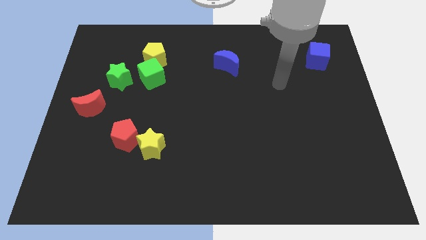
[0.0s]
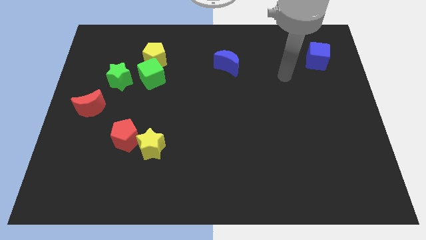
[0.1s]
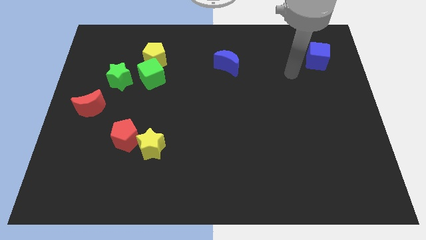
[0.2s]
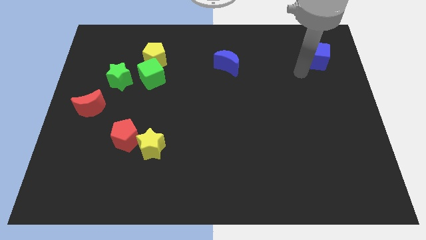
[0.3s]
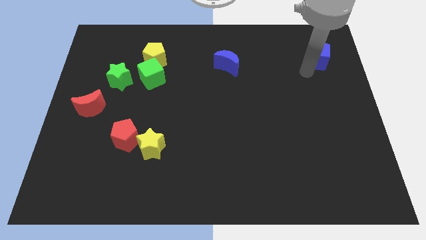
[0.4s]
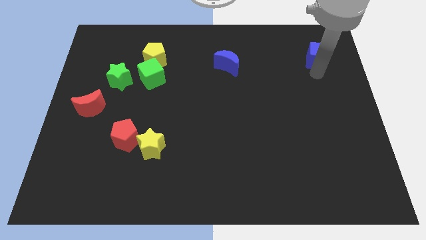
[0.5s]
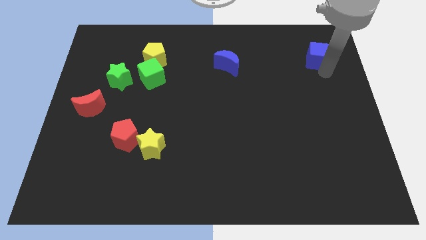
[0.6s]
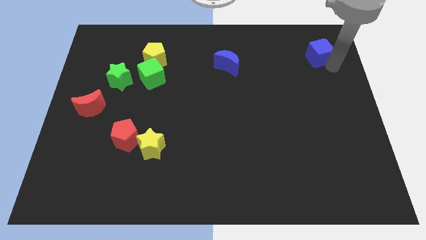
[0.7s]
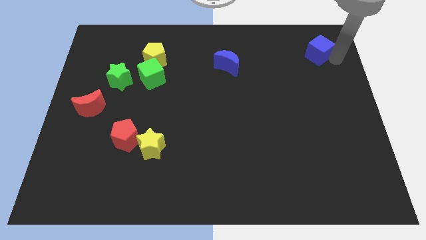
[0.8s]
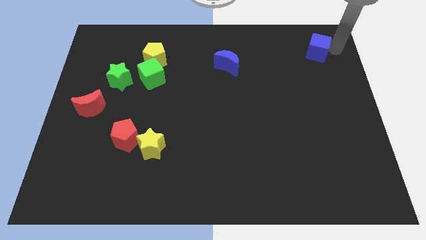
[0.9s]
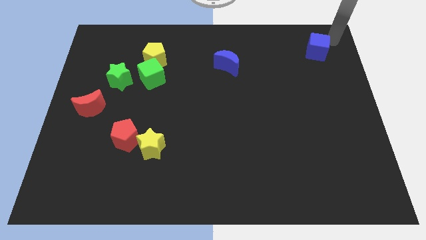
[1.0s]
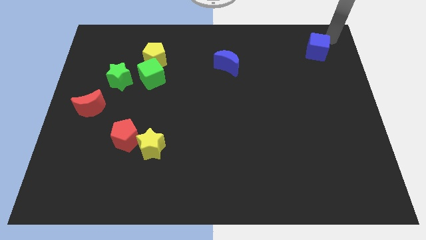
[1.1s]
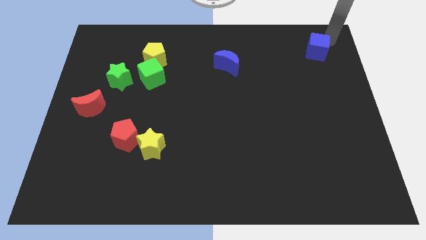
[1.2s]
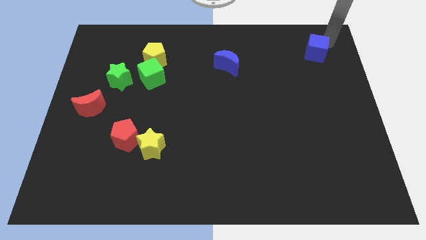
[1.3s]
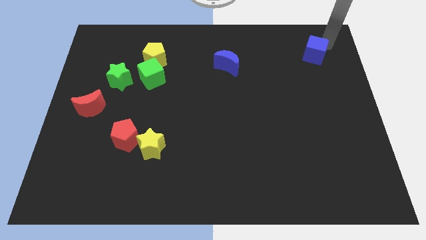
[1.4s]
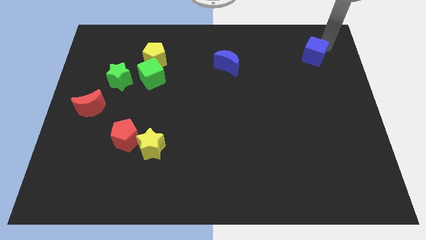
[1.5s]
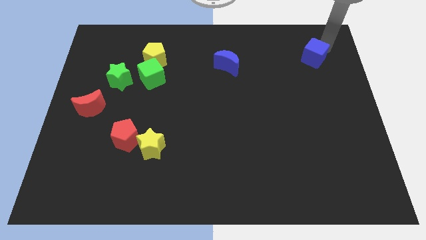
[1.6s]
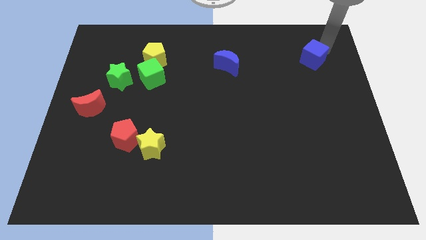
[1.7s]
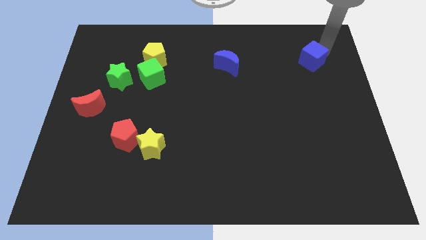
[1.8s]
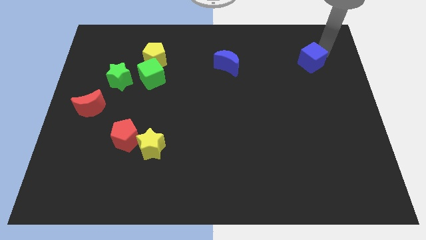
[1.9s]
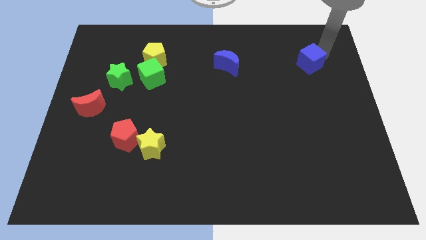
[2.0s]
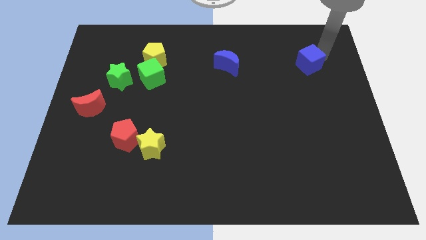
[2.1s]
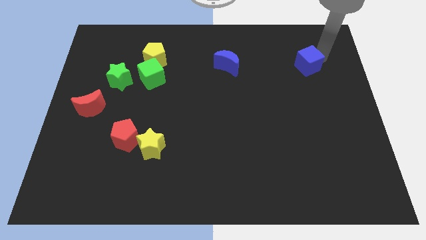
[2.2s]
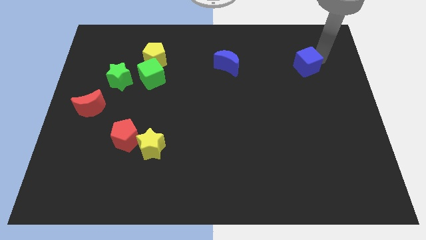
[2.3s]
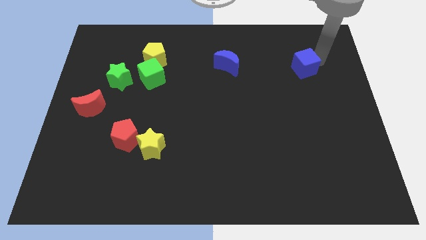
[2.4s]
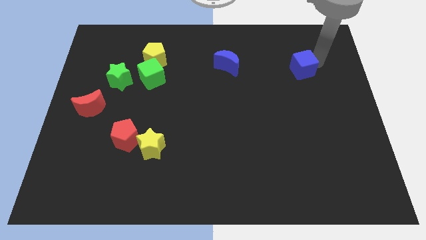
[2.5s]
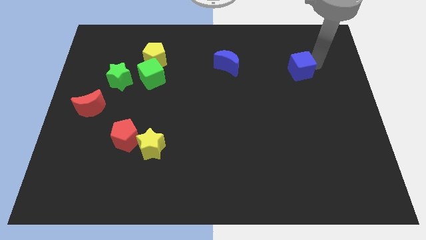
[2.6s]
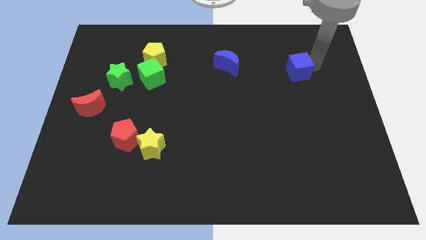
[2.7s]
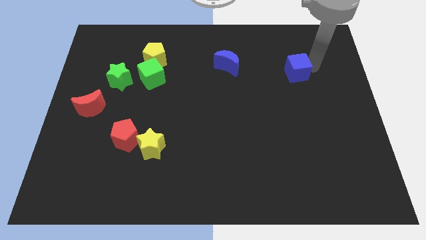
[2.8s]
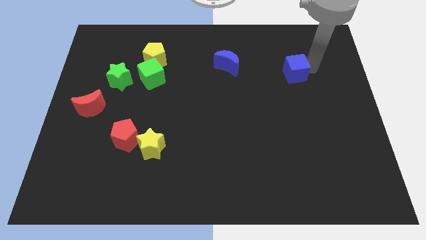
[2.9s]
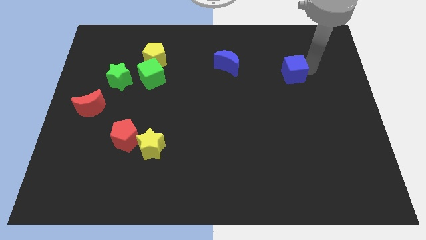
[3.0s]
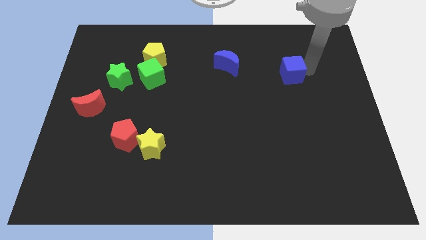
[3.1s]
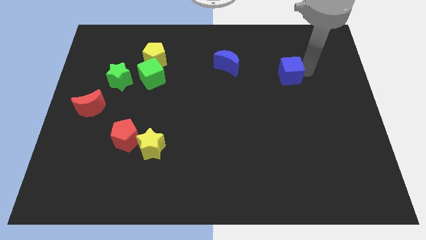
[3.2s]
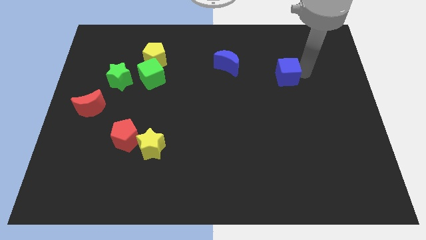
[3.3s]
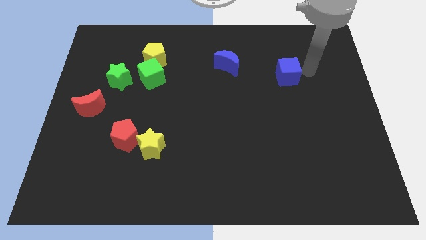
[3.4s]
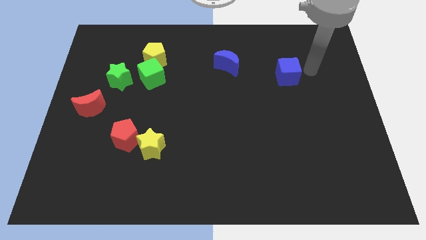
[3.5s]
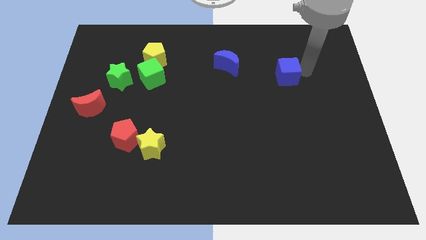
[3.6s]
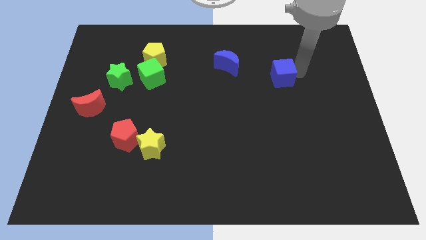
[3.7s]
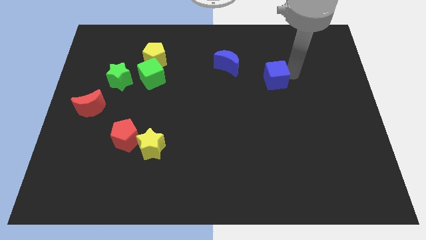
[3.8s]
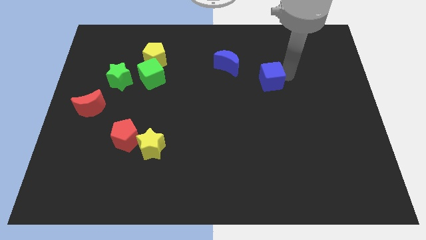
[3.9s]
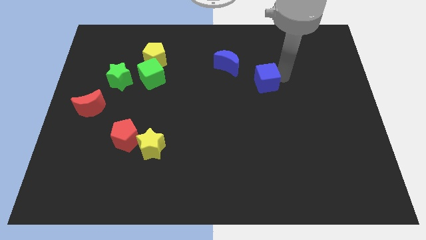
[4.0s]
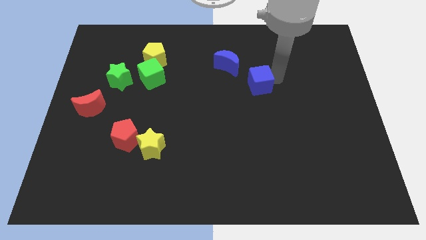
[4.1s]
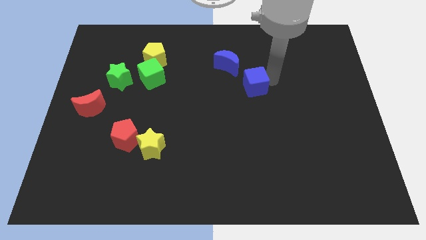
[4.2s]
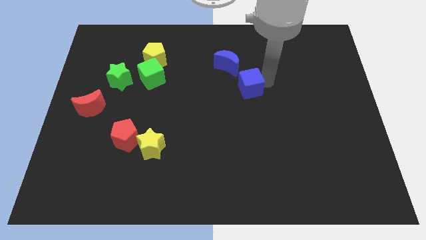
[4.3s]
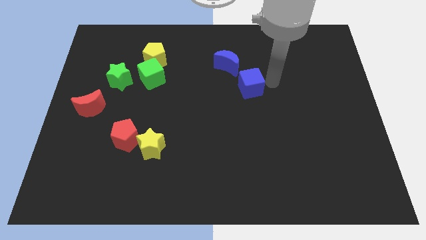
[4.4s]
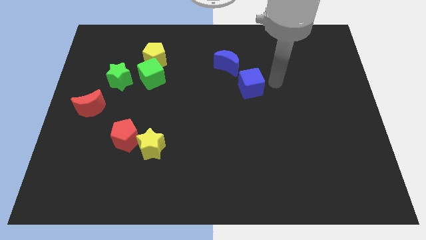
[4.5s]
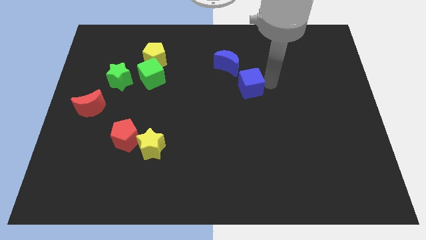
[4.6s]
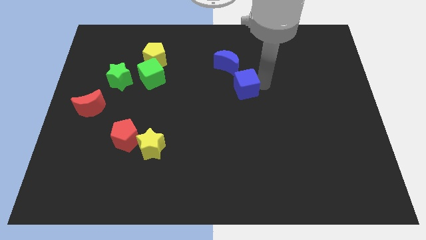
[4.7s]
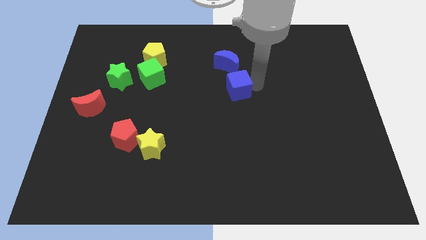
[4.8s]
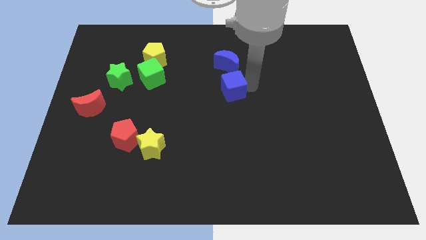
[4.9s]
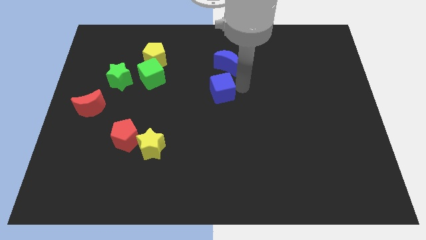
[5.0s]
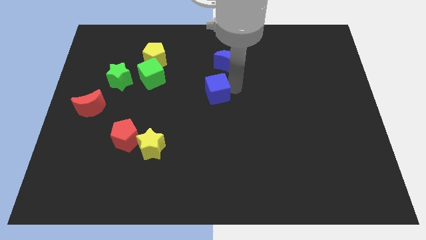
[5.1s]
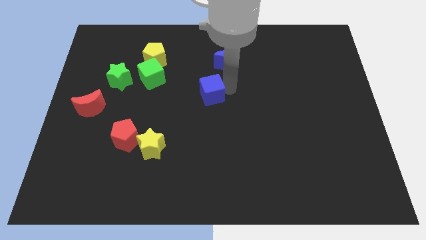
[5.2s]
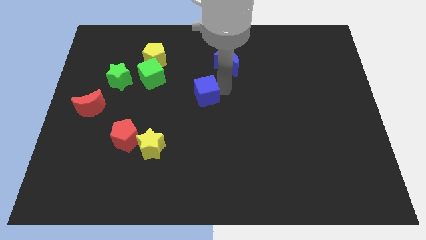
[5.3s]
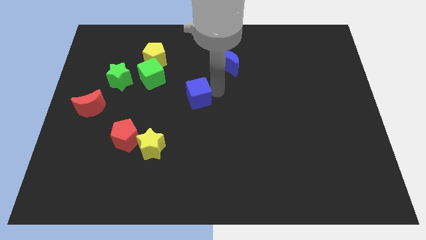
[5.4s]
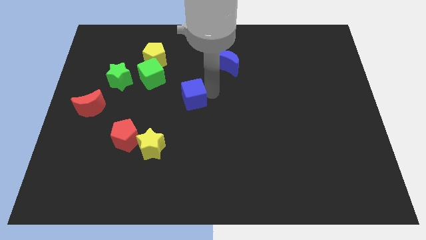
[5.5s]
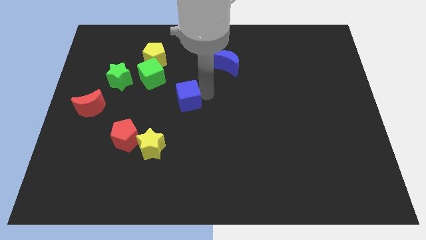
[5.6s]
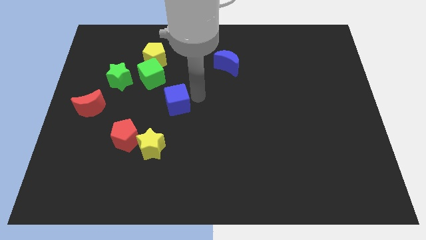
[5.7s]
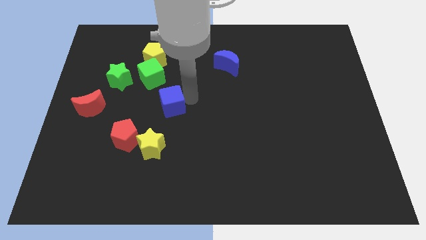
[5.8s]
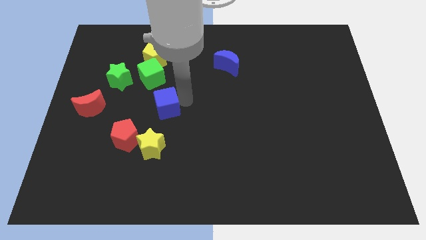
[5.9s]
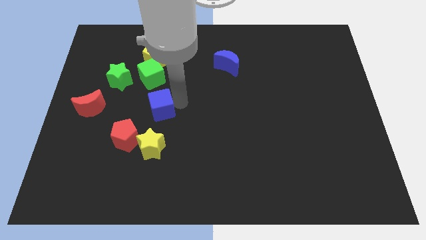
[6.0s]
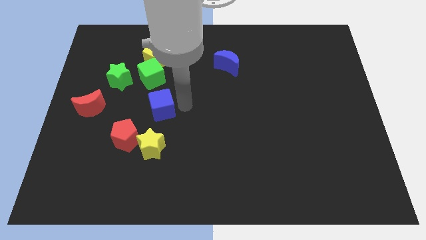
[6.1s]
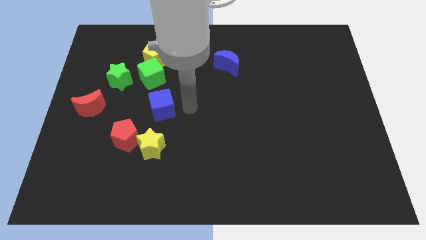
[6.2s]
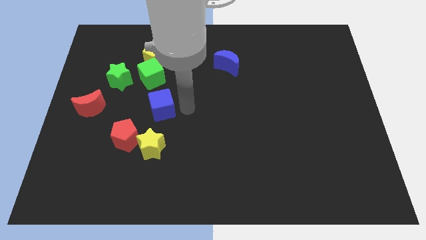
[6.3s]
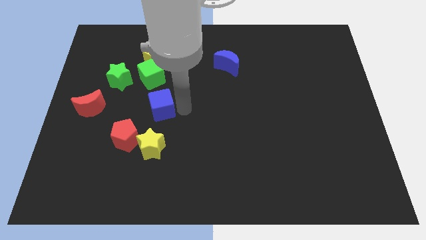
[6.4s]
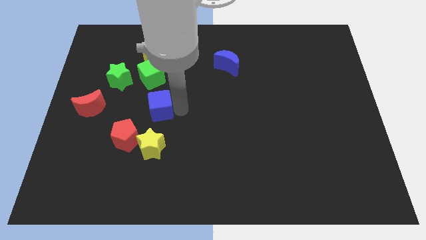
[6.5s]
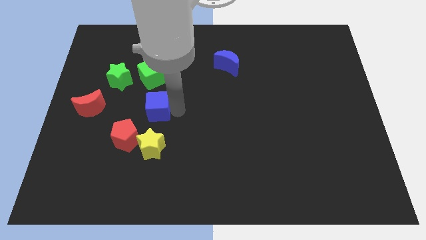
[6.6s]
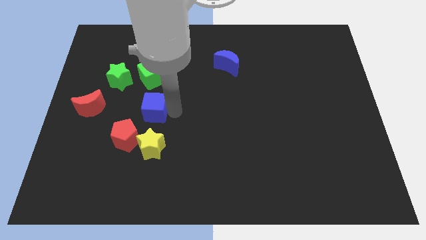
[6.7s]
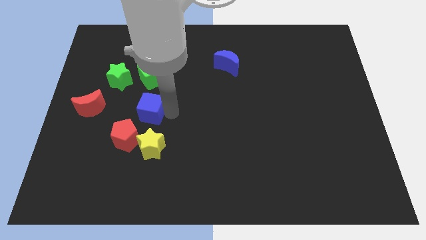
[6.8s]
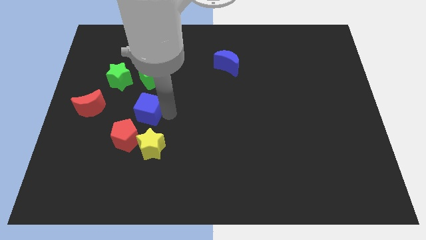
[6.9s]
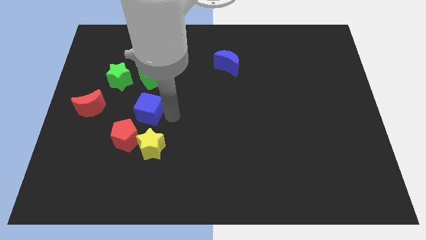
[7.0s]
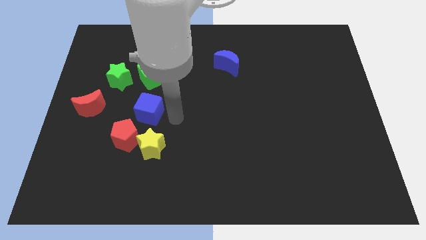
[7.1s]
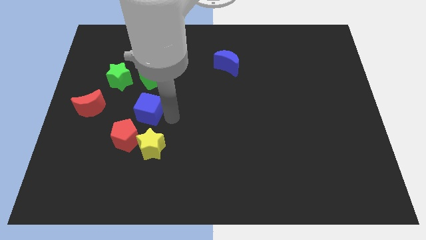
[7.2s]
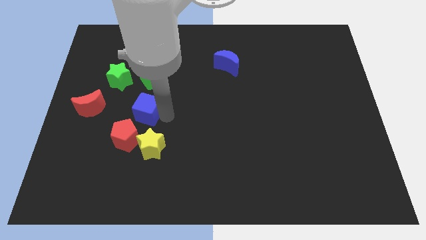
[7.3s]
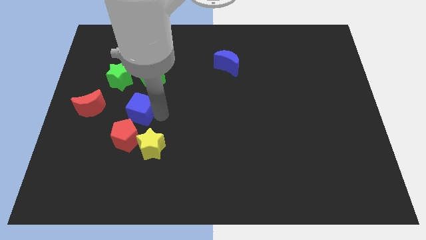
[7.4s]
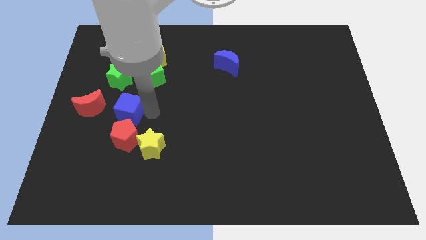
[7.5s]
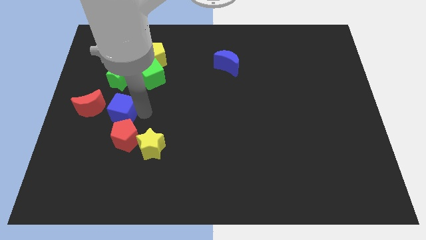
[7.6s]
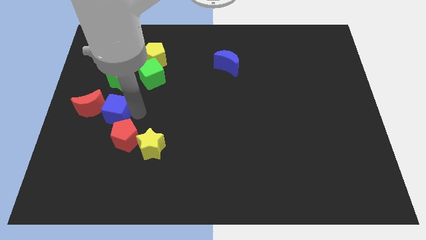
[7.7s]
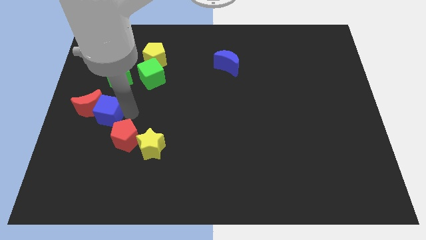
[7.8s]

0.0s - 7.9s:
put the blue cube close to the red moon
